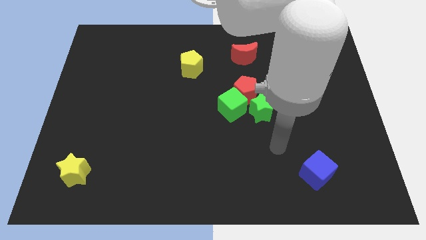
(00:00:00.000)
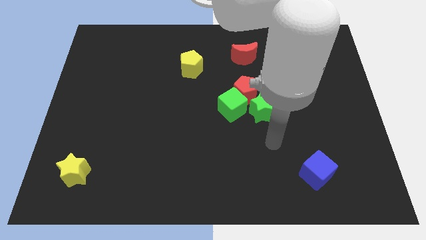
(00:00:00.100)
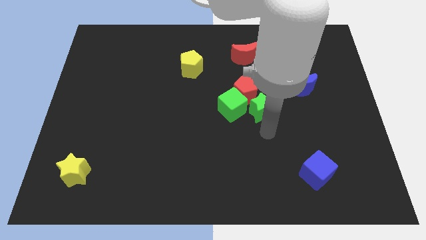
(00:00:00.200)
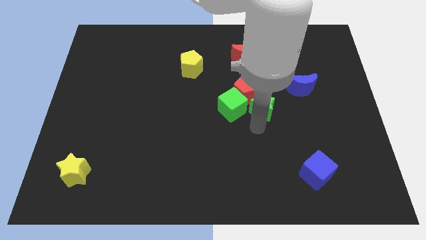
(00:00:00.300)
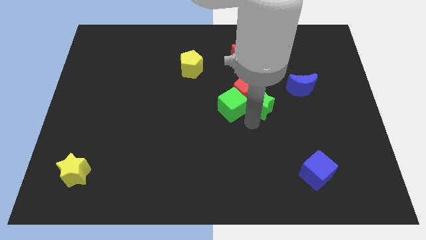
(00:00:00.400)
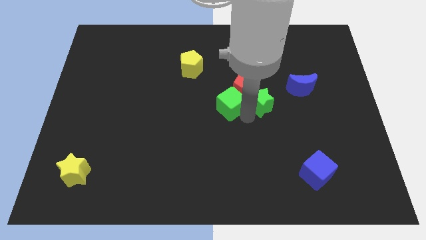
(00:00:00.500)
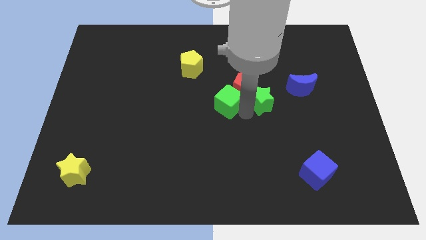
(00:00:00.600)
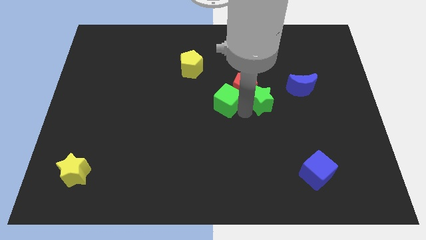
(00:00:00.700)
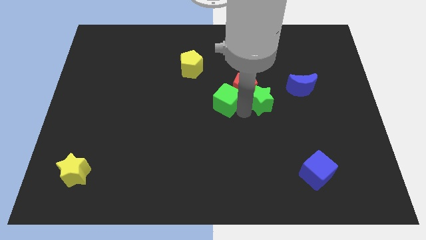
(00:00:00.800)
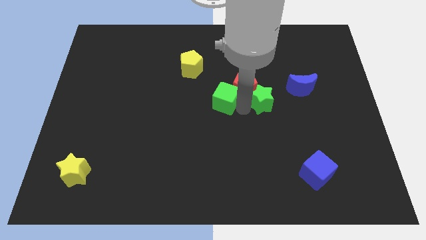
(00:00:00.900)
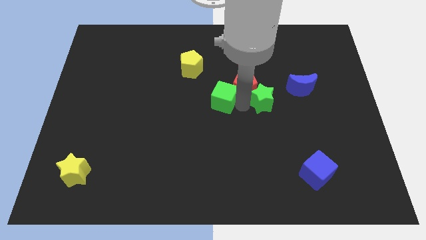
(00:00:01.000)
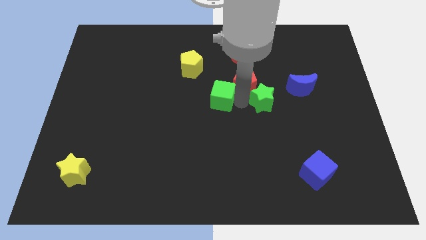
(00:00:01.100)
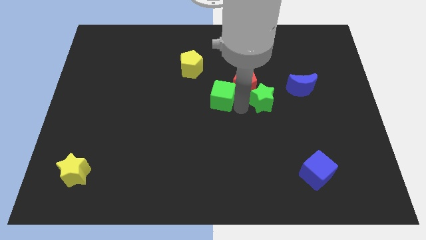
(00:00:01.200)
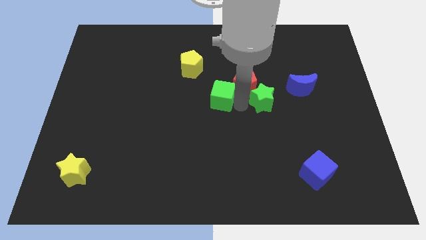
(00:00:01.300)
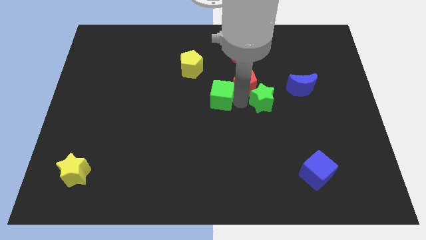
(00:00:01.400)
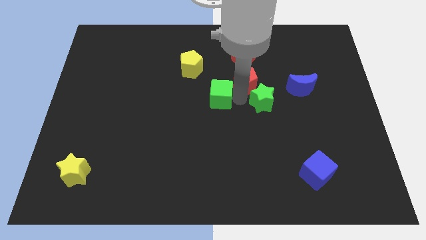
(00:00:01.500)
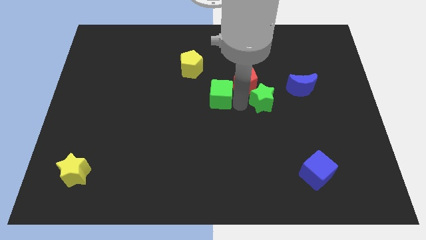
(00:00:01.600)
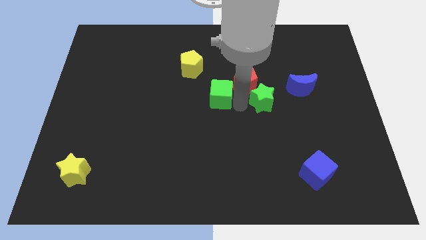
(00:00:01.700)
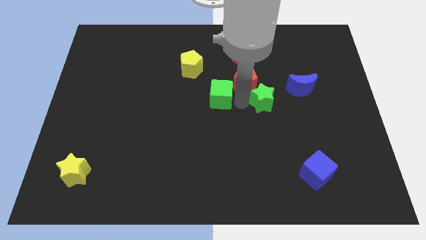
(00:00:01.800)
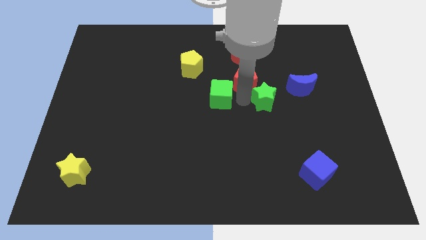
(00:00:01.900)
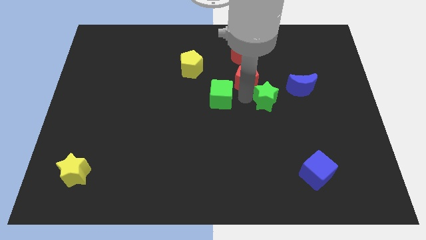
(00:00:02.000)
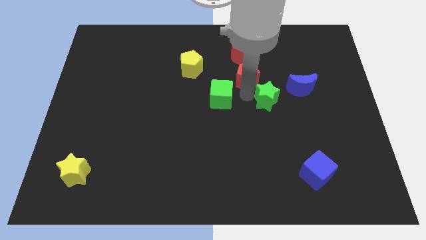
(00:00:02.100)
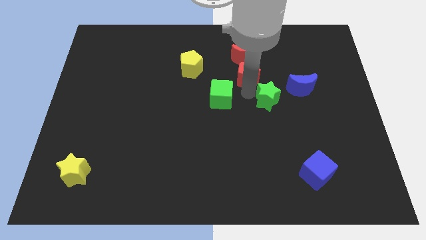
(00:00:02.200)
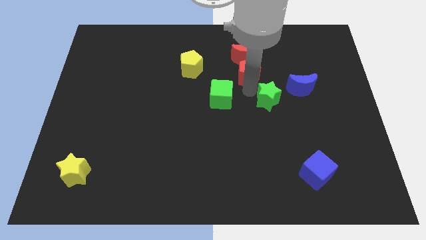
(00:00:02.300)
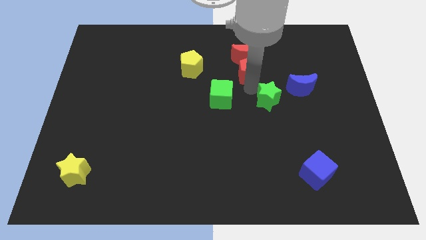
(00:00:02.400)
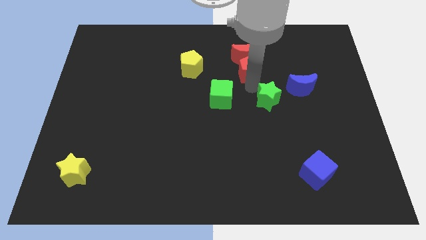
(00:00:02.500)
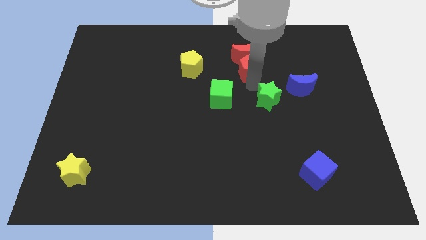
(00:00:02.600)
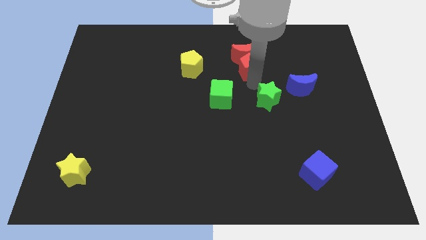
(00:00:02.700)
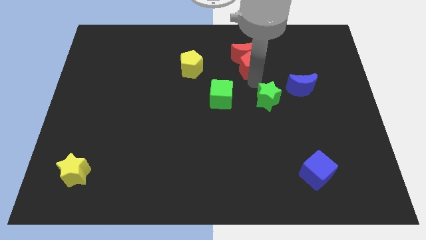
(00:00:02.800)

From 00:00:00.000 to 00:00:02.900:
pull the red pentagon apart from the green cube and green star

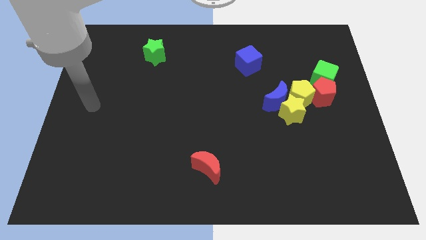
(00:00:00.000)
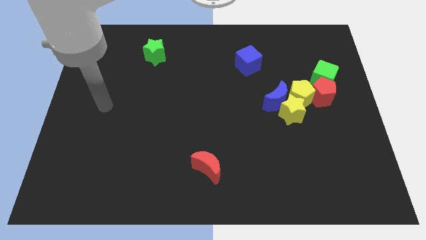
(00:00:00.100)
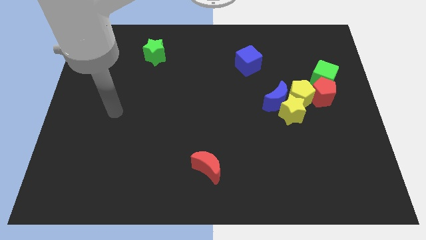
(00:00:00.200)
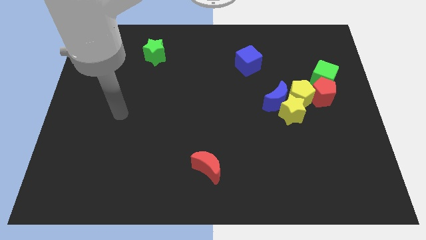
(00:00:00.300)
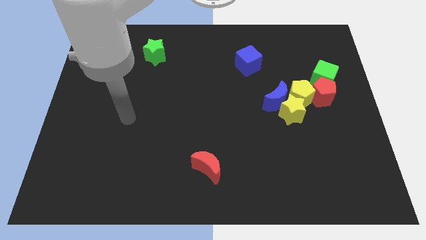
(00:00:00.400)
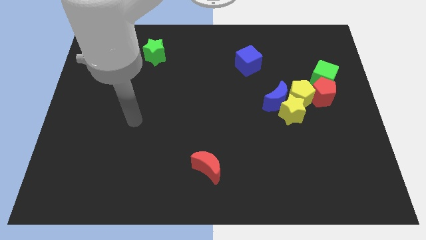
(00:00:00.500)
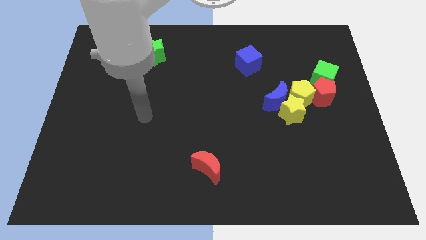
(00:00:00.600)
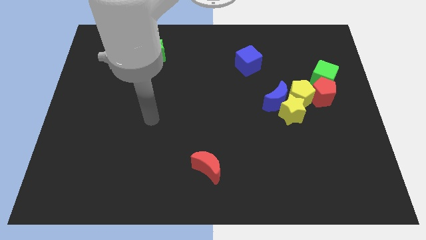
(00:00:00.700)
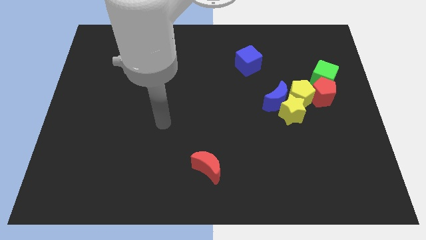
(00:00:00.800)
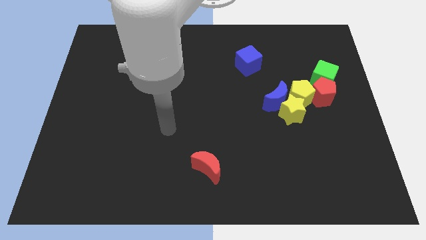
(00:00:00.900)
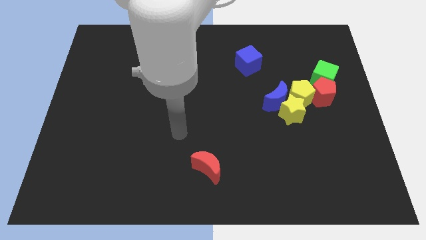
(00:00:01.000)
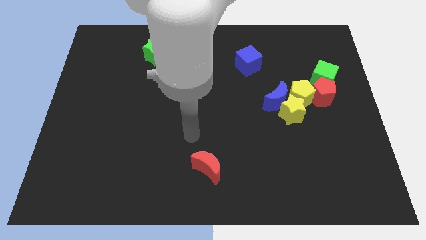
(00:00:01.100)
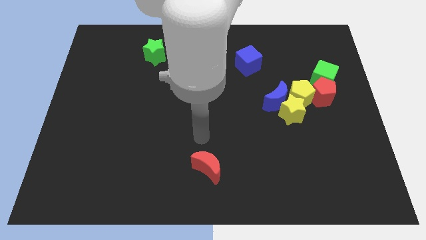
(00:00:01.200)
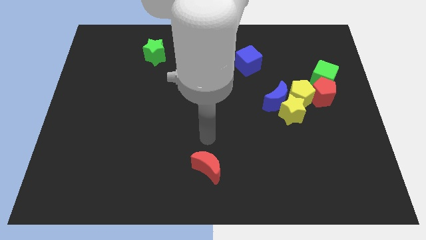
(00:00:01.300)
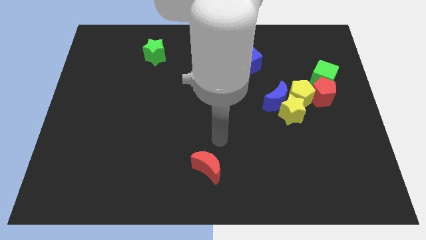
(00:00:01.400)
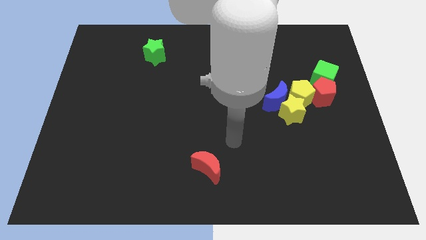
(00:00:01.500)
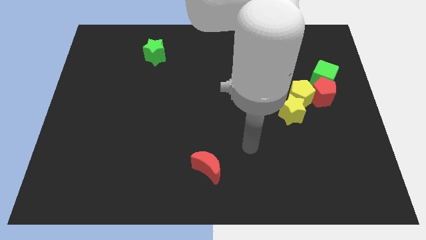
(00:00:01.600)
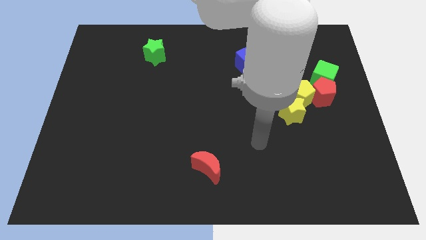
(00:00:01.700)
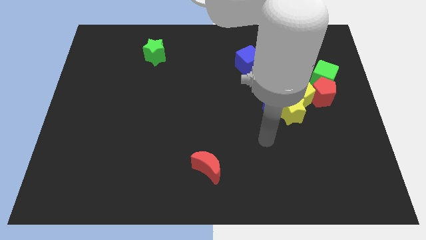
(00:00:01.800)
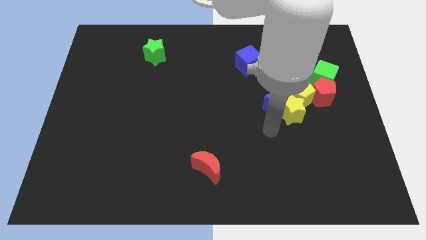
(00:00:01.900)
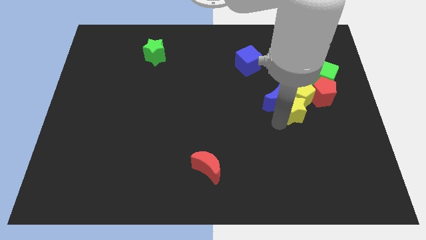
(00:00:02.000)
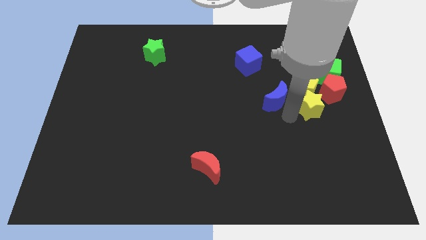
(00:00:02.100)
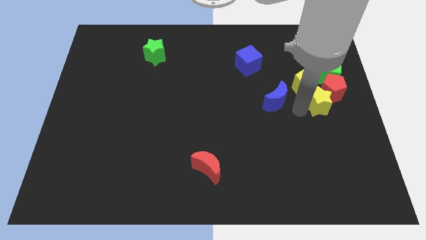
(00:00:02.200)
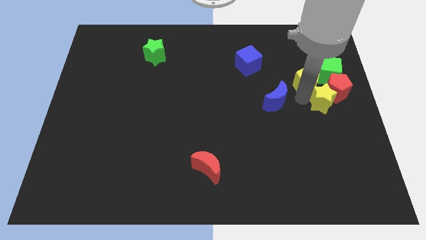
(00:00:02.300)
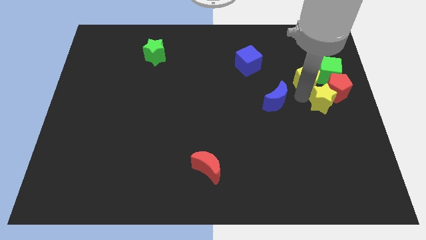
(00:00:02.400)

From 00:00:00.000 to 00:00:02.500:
separate the blue moon from the yellow star and yellow pentagon

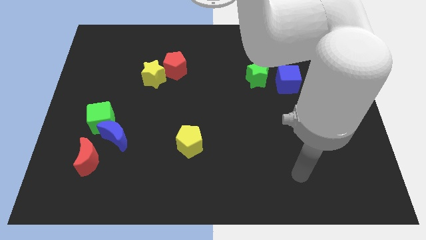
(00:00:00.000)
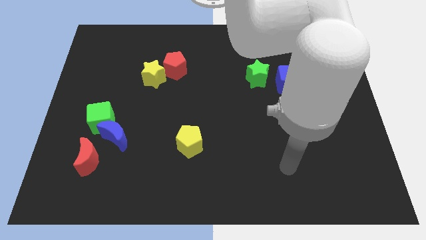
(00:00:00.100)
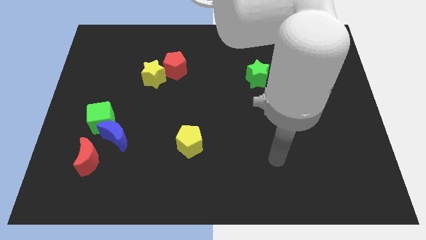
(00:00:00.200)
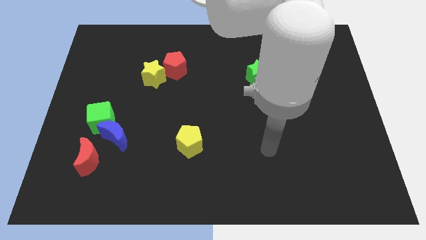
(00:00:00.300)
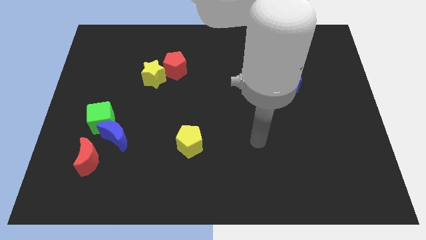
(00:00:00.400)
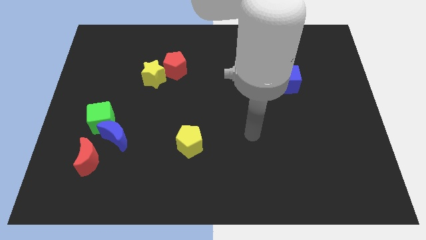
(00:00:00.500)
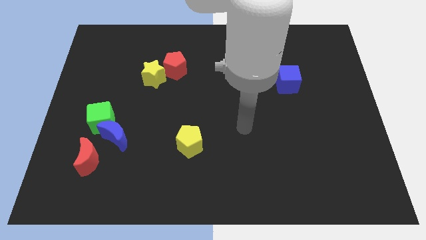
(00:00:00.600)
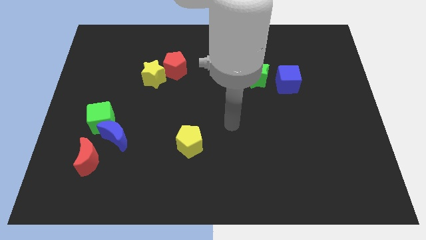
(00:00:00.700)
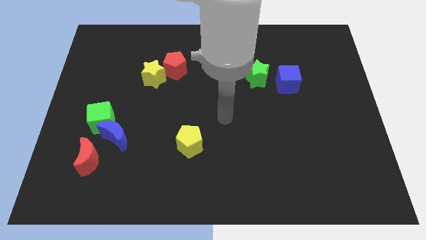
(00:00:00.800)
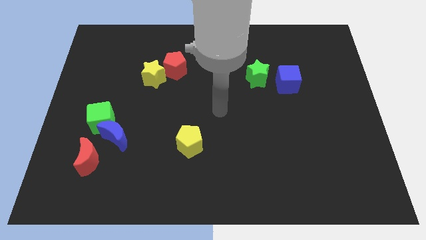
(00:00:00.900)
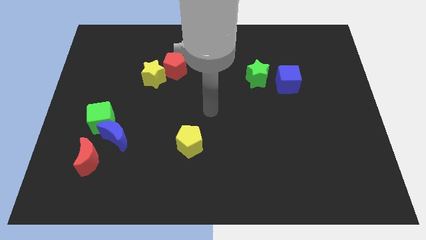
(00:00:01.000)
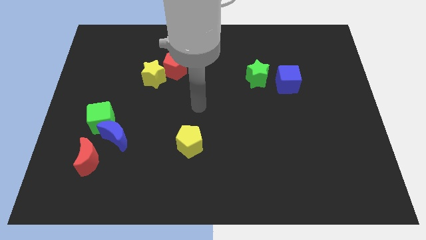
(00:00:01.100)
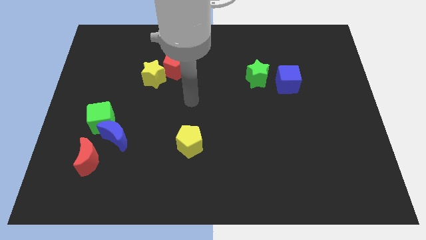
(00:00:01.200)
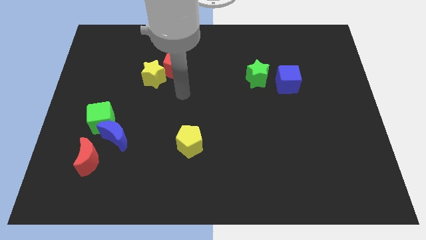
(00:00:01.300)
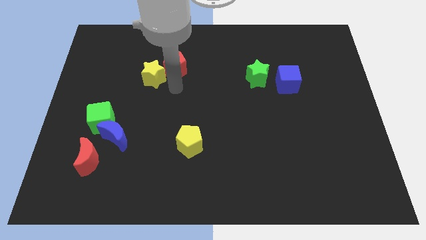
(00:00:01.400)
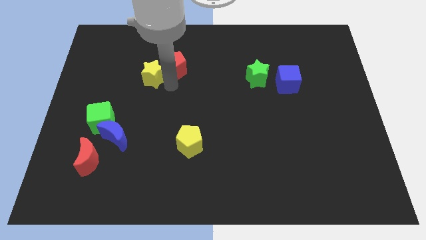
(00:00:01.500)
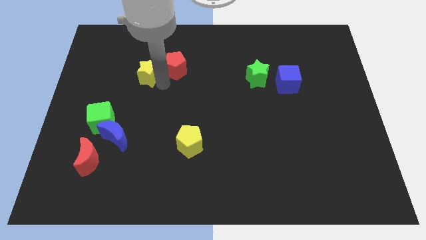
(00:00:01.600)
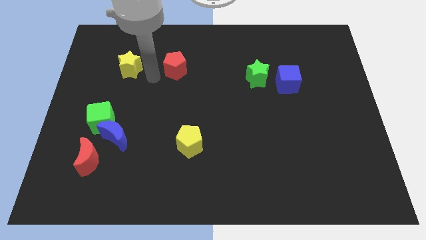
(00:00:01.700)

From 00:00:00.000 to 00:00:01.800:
move the red pentagon away from the yellow star

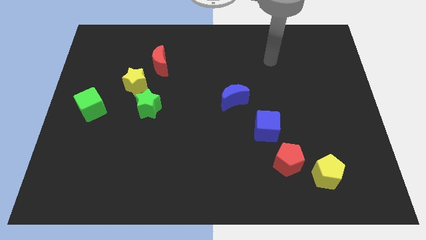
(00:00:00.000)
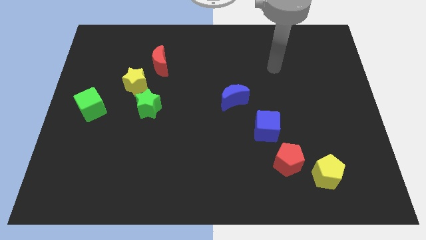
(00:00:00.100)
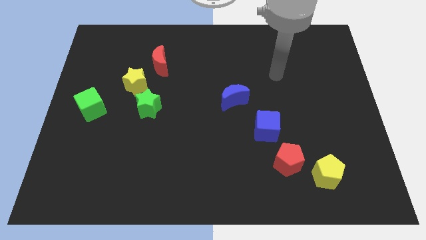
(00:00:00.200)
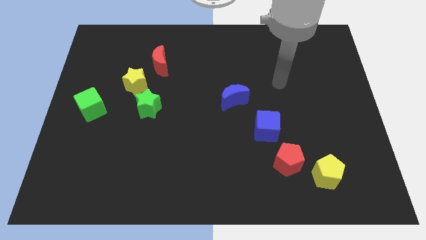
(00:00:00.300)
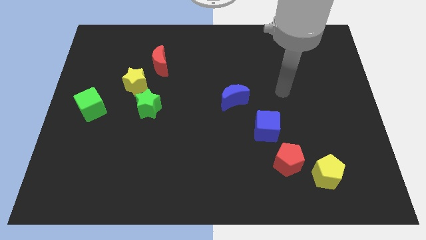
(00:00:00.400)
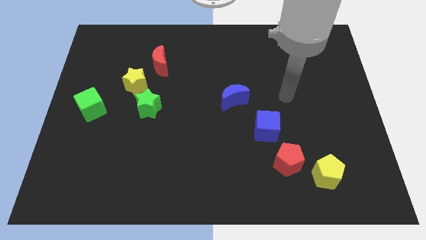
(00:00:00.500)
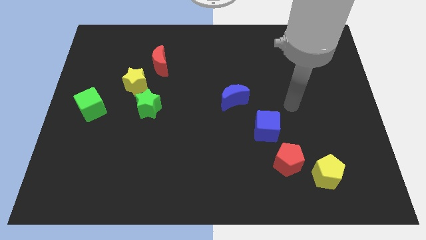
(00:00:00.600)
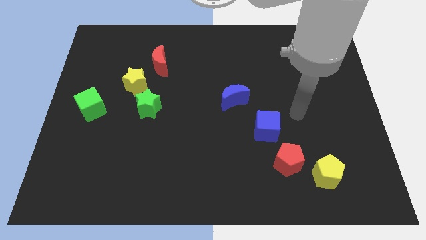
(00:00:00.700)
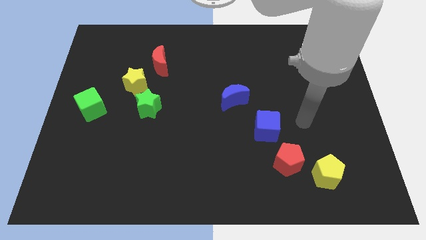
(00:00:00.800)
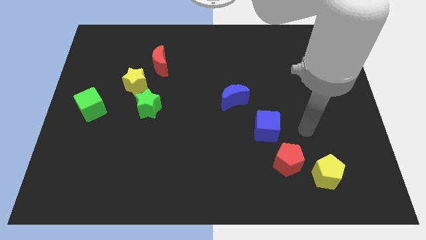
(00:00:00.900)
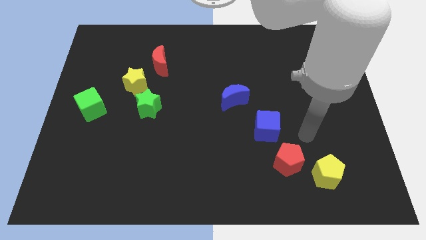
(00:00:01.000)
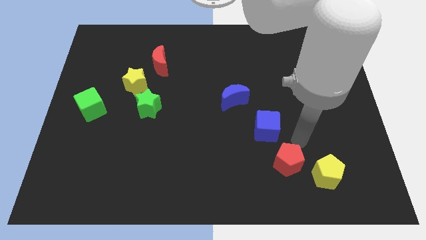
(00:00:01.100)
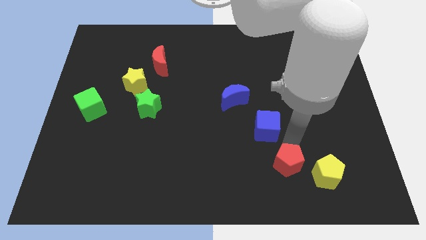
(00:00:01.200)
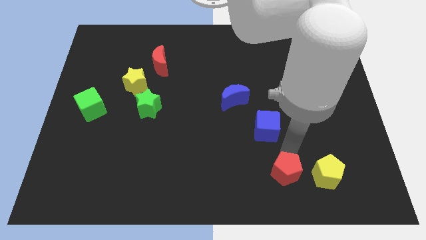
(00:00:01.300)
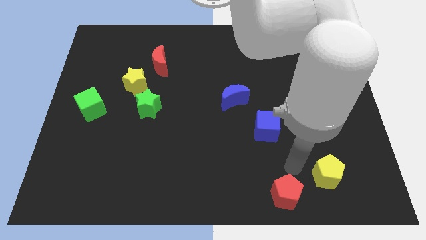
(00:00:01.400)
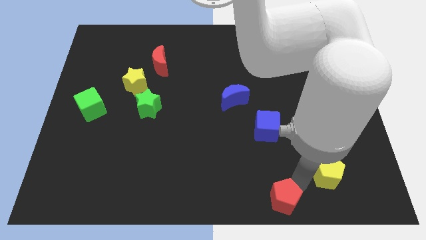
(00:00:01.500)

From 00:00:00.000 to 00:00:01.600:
pull the yellow pentagon apart from the red pentagon

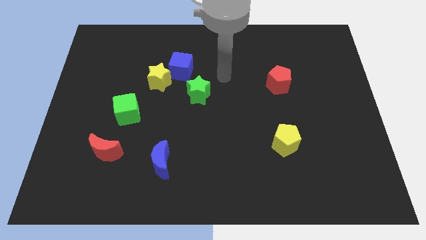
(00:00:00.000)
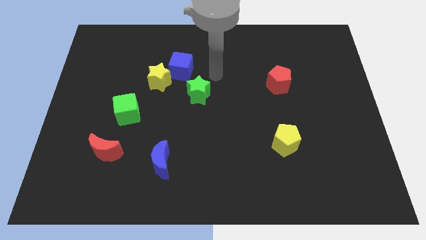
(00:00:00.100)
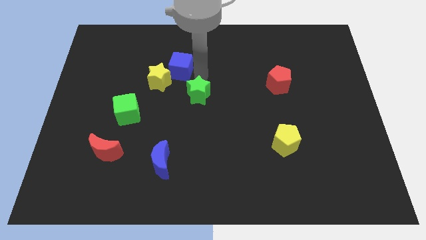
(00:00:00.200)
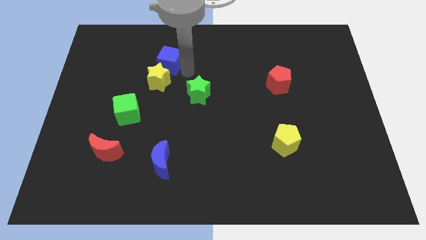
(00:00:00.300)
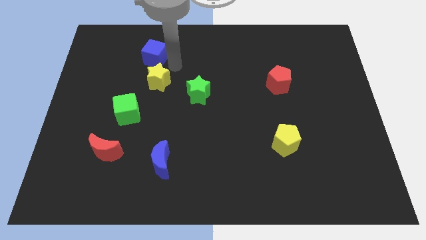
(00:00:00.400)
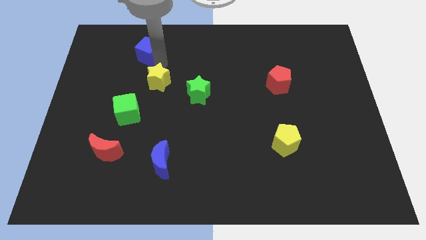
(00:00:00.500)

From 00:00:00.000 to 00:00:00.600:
pull the yellow star apart from the blue cube
